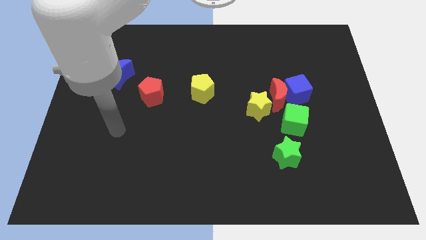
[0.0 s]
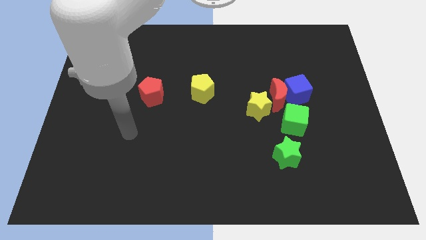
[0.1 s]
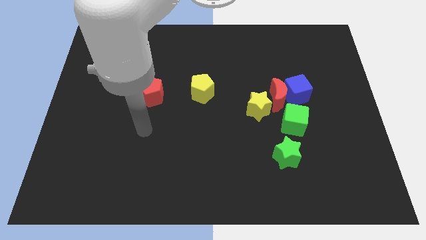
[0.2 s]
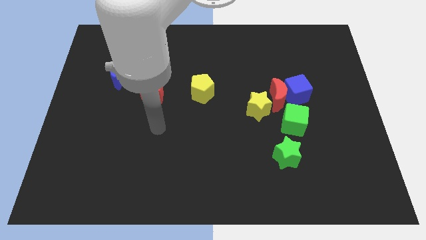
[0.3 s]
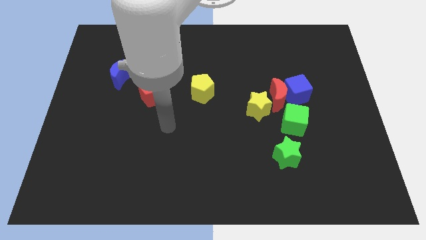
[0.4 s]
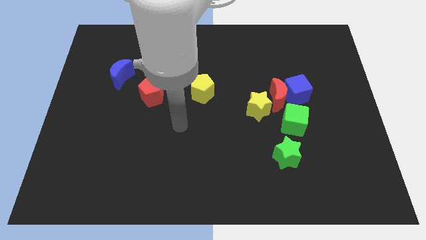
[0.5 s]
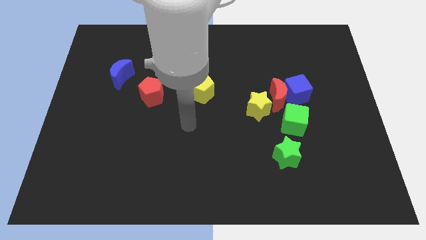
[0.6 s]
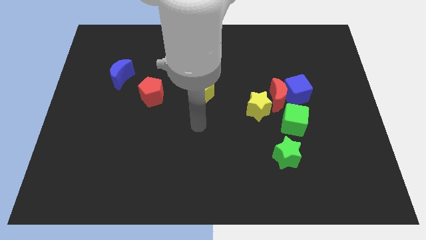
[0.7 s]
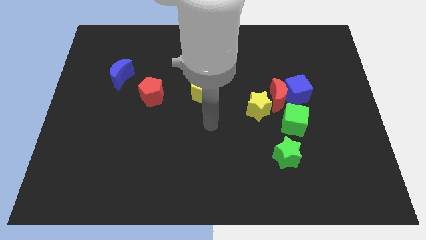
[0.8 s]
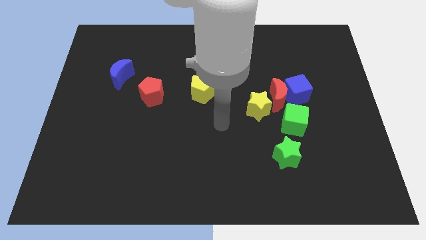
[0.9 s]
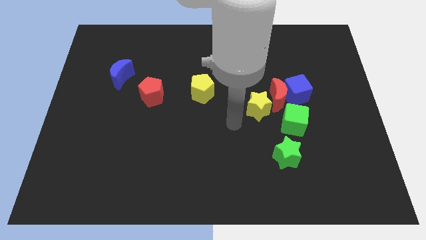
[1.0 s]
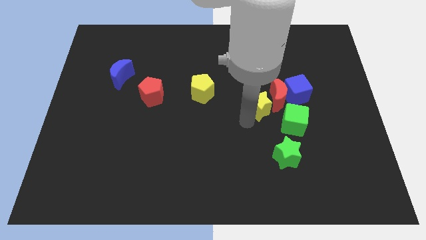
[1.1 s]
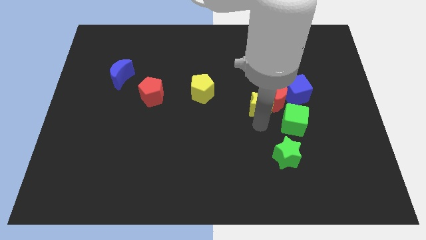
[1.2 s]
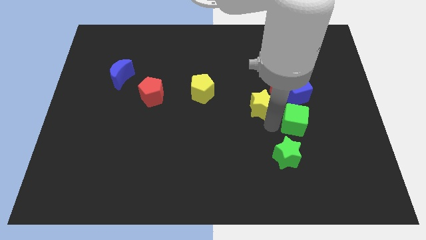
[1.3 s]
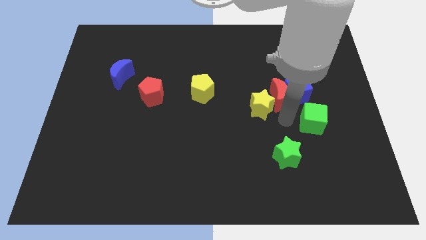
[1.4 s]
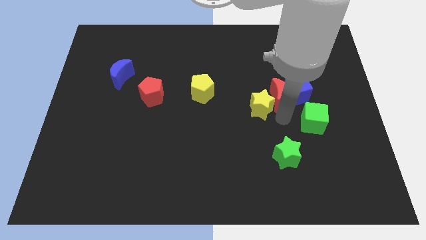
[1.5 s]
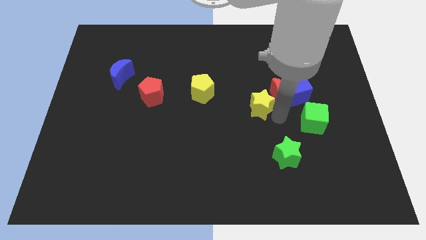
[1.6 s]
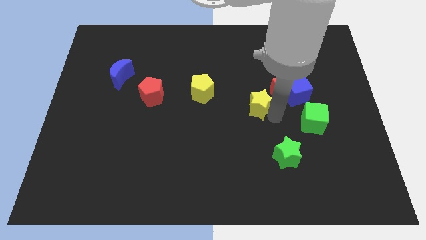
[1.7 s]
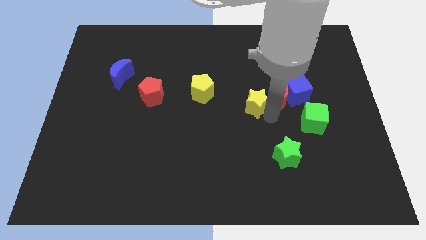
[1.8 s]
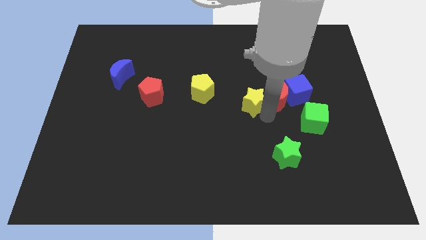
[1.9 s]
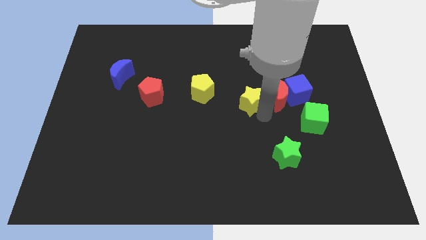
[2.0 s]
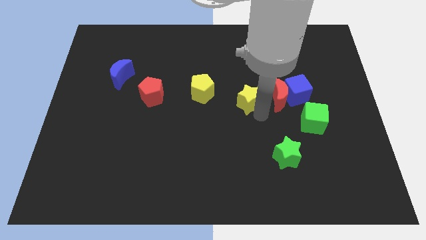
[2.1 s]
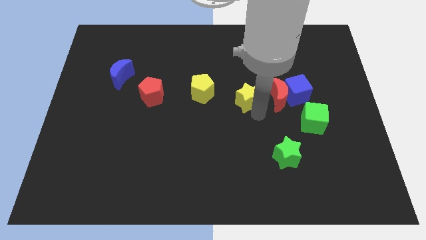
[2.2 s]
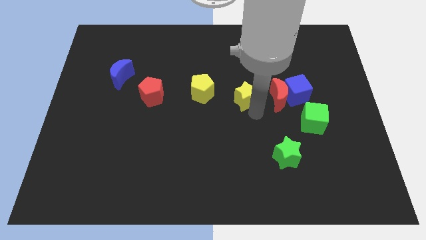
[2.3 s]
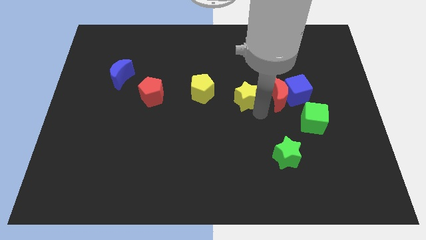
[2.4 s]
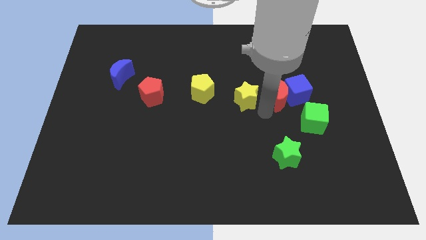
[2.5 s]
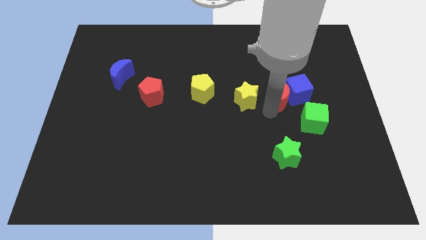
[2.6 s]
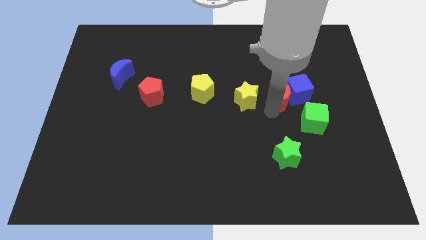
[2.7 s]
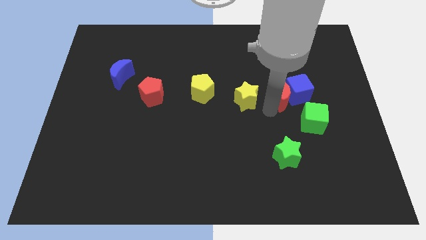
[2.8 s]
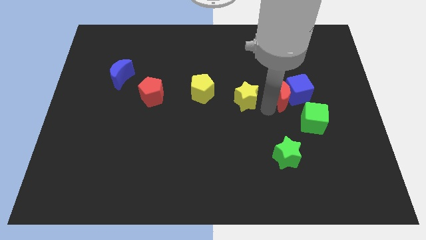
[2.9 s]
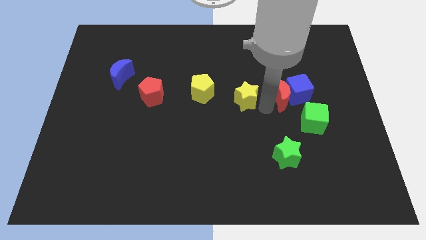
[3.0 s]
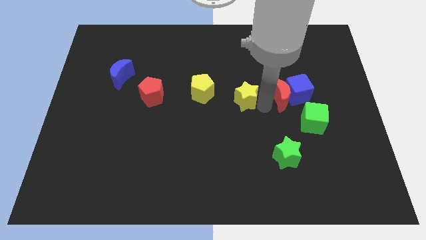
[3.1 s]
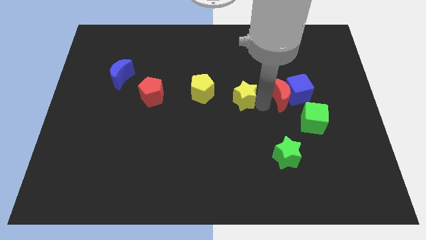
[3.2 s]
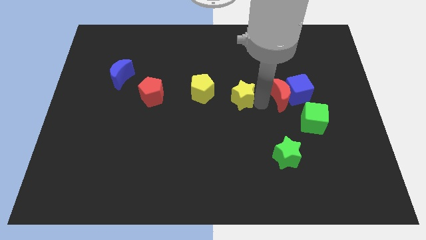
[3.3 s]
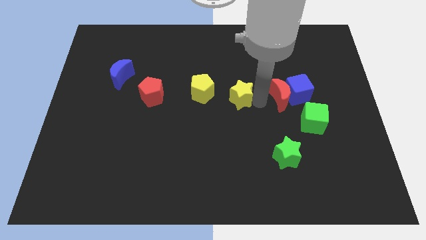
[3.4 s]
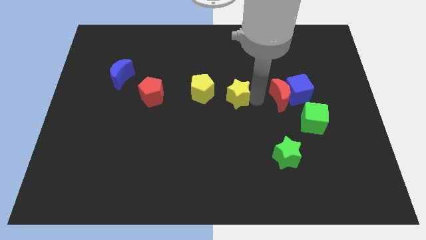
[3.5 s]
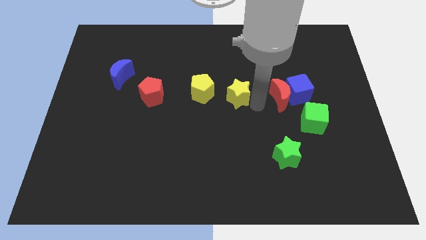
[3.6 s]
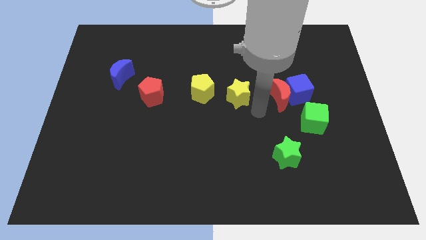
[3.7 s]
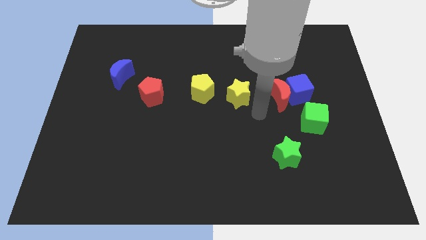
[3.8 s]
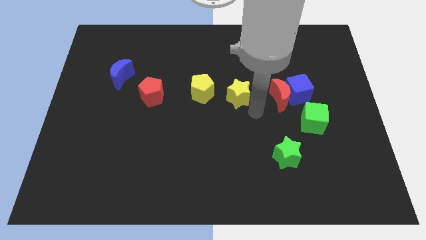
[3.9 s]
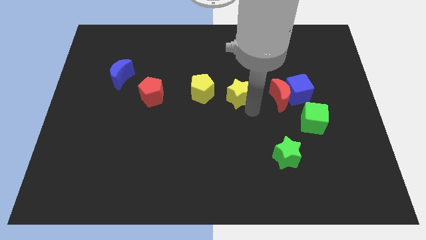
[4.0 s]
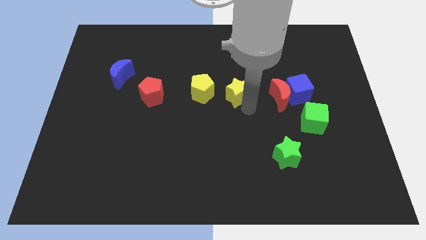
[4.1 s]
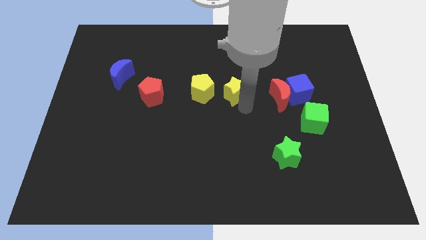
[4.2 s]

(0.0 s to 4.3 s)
slide the yellow star up and then to the left a bit

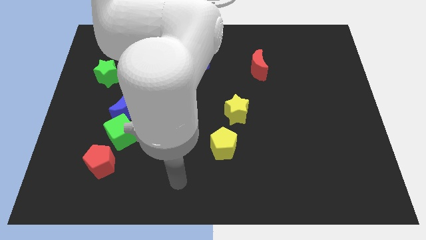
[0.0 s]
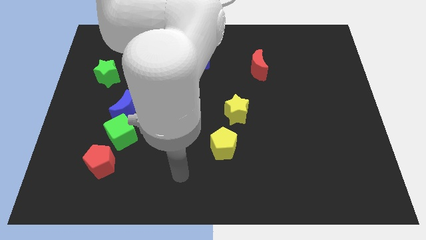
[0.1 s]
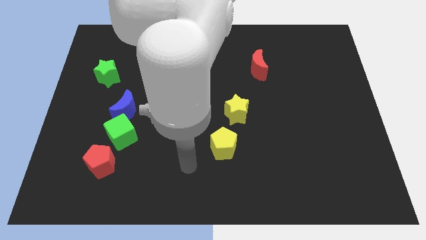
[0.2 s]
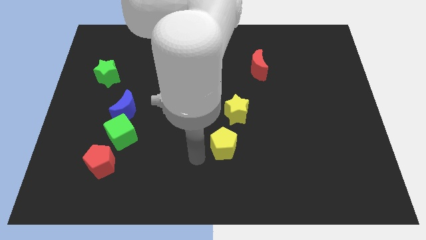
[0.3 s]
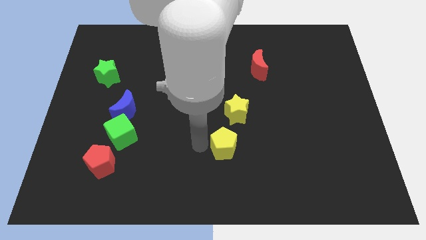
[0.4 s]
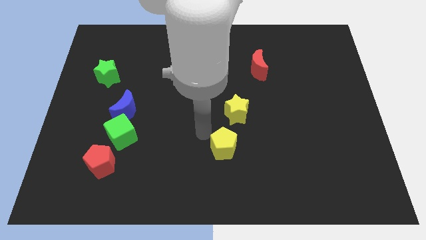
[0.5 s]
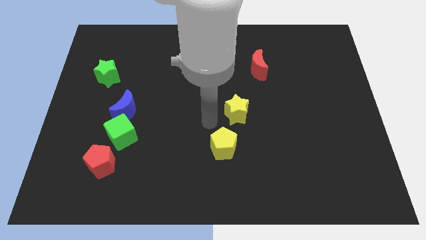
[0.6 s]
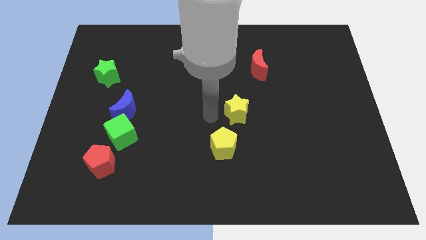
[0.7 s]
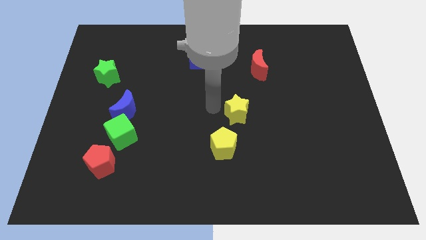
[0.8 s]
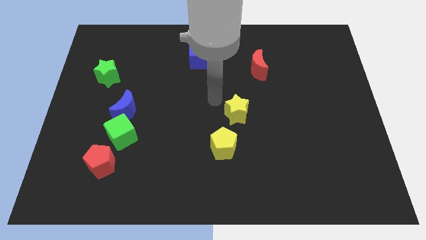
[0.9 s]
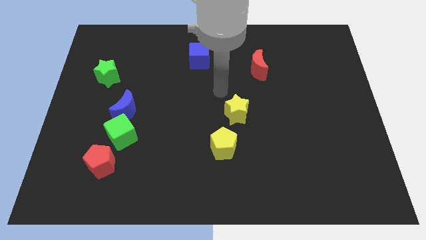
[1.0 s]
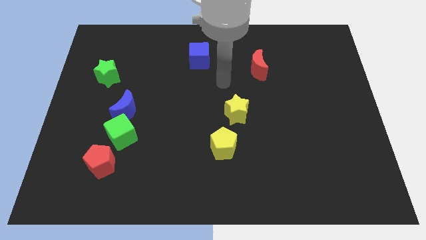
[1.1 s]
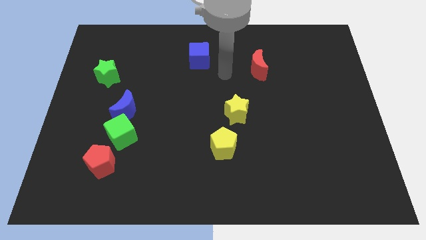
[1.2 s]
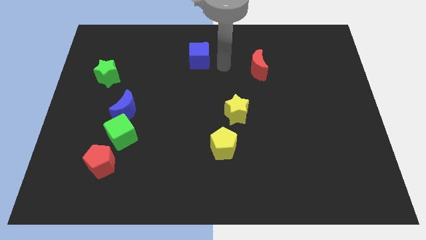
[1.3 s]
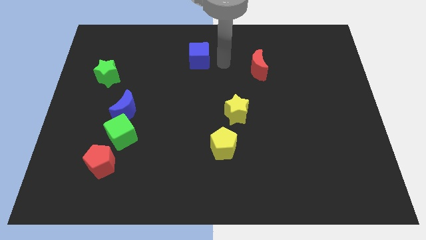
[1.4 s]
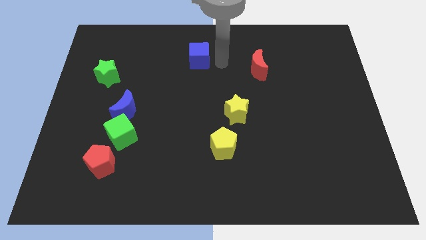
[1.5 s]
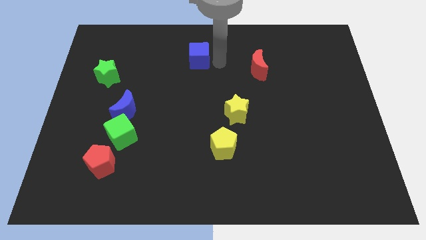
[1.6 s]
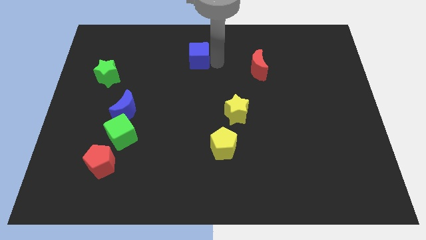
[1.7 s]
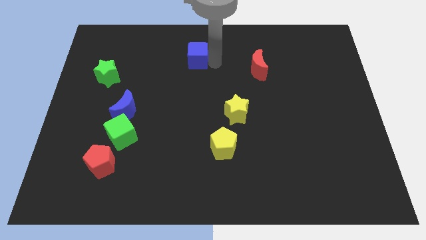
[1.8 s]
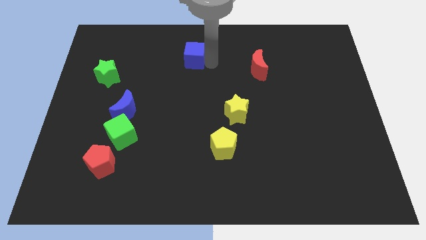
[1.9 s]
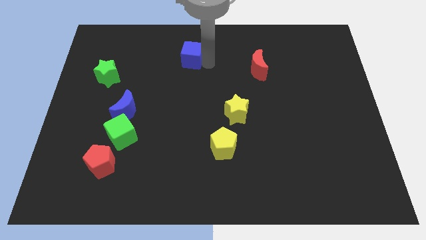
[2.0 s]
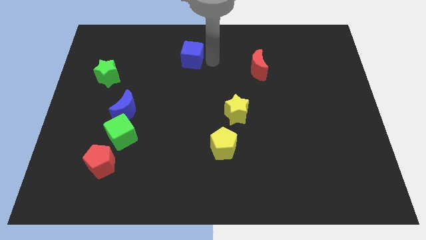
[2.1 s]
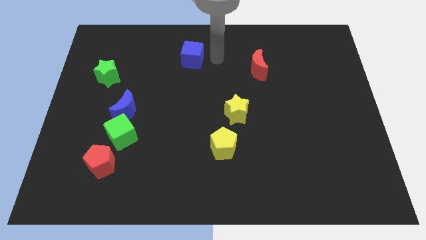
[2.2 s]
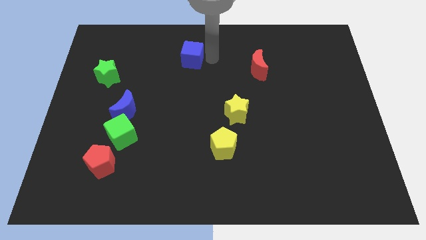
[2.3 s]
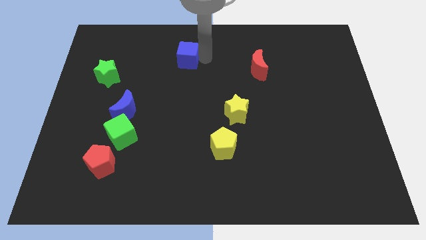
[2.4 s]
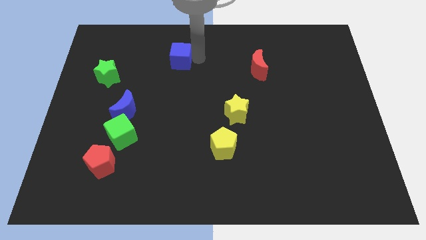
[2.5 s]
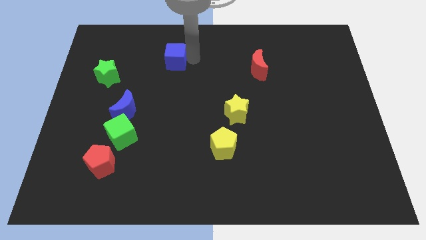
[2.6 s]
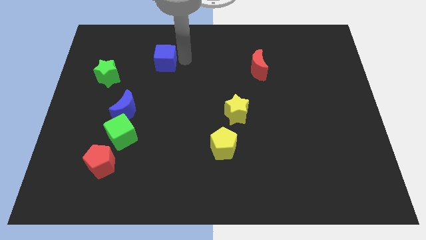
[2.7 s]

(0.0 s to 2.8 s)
slide the blue cube a little bit left

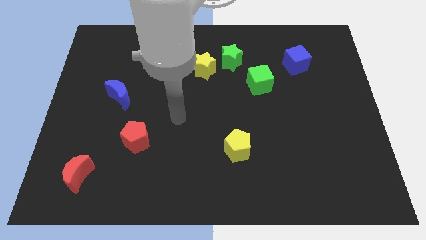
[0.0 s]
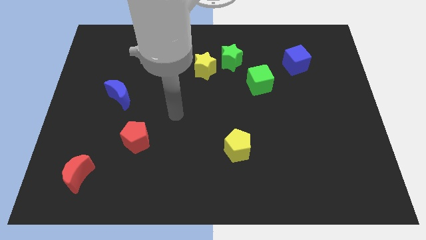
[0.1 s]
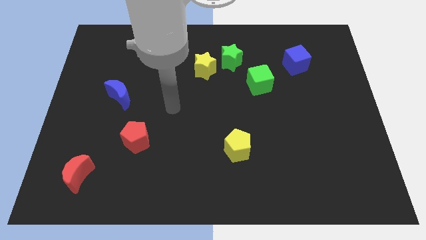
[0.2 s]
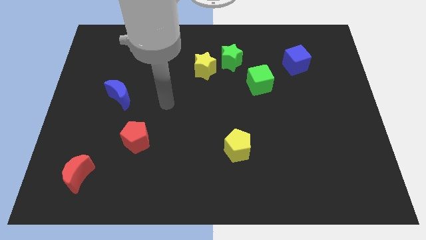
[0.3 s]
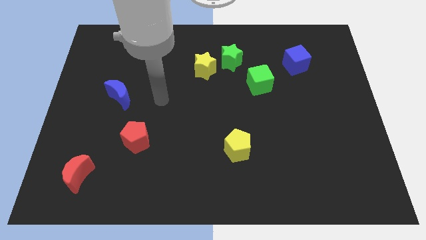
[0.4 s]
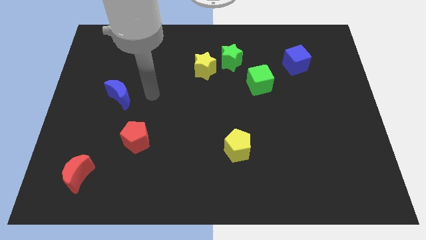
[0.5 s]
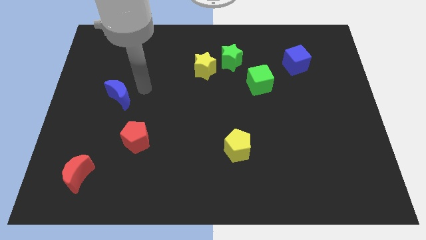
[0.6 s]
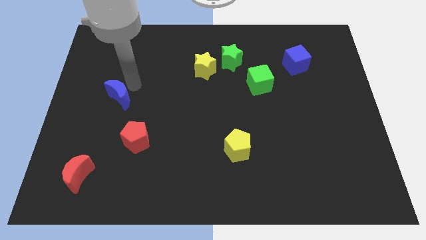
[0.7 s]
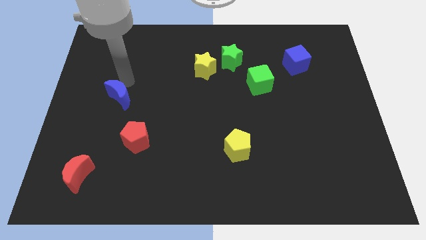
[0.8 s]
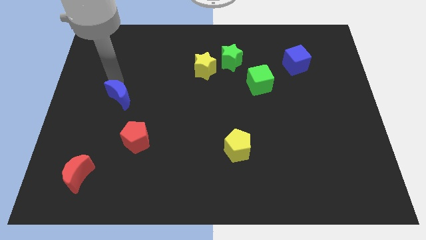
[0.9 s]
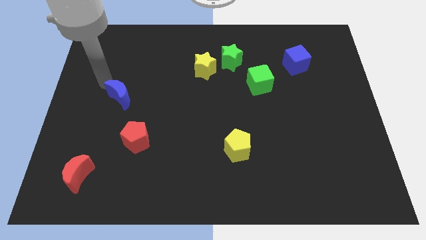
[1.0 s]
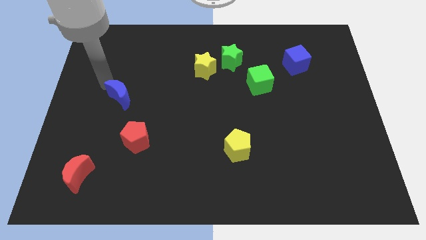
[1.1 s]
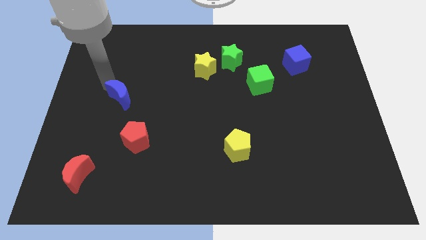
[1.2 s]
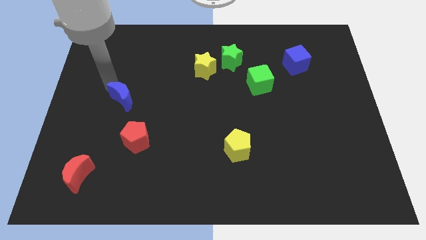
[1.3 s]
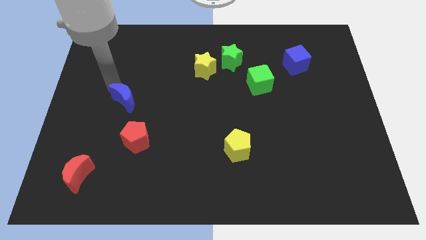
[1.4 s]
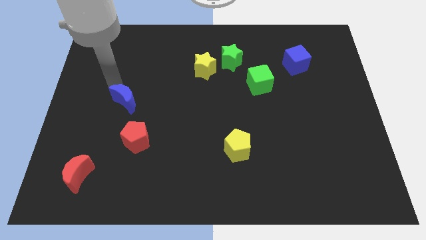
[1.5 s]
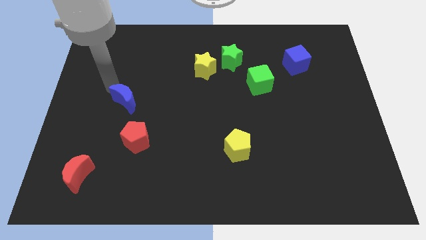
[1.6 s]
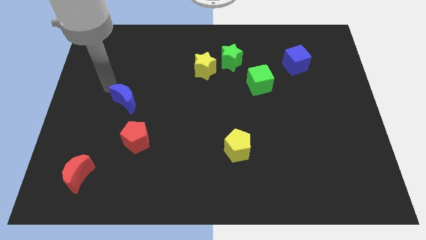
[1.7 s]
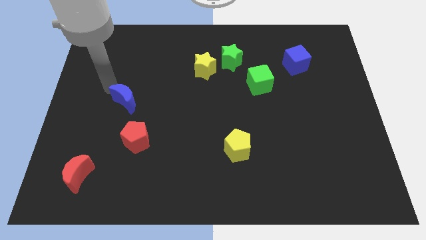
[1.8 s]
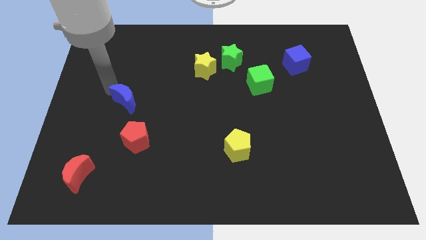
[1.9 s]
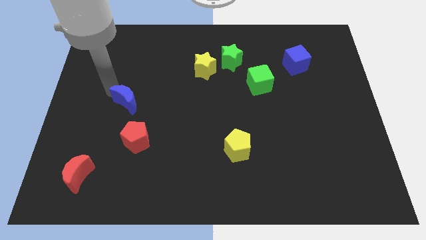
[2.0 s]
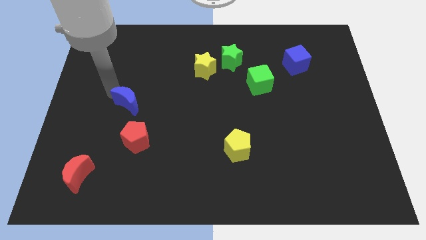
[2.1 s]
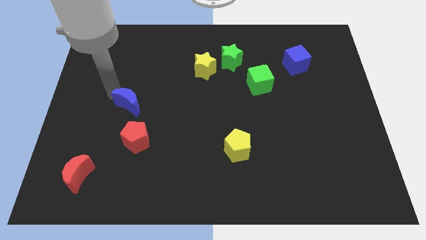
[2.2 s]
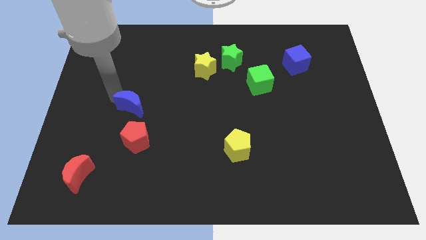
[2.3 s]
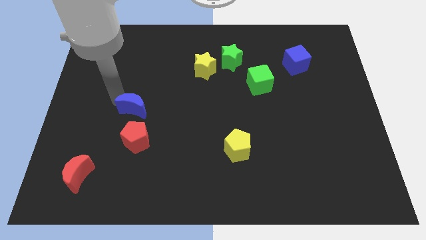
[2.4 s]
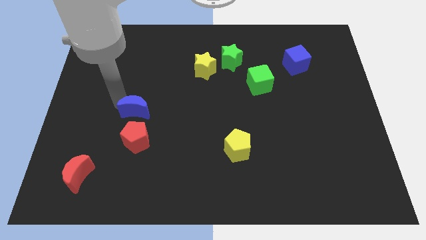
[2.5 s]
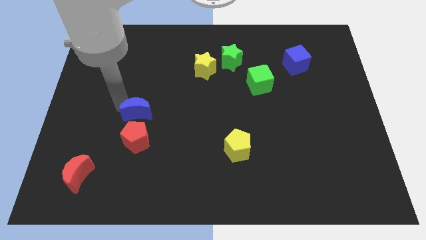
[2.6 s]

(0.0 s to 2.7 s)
slightly slide the blue moon down and to the right diagonally
